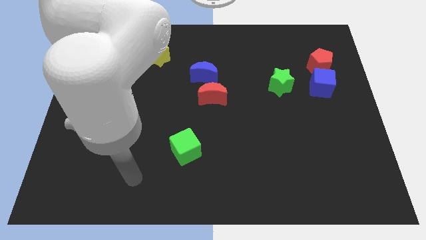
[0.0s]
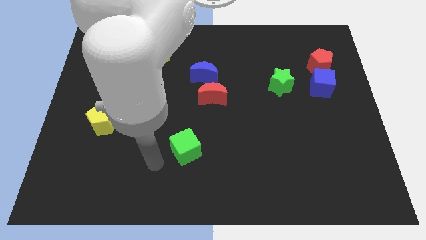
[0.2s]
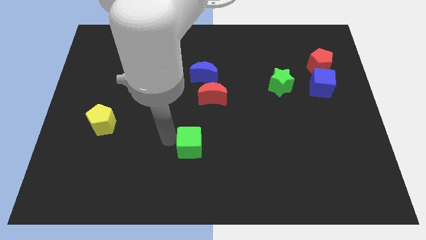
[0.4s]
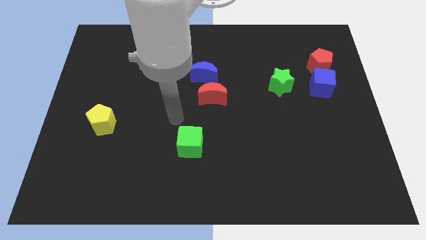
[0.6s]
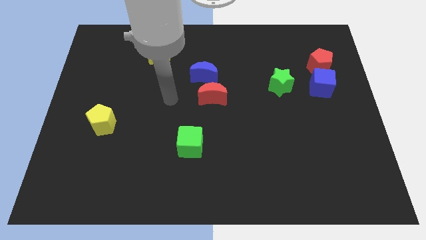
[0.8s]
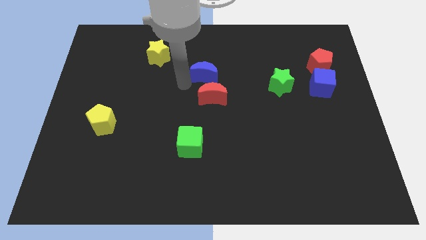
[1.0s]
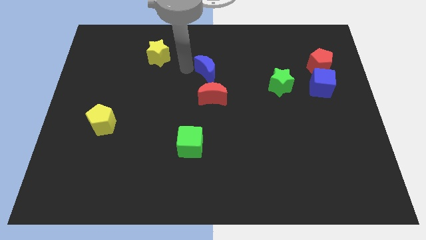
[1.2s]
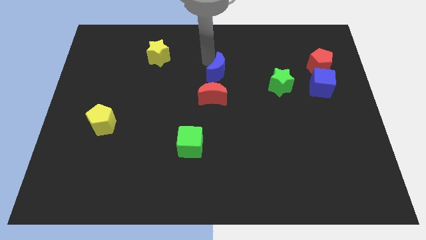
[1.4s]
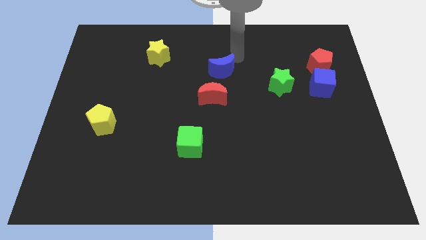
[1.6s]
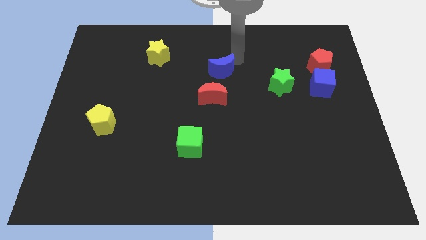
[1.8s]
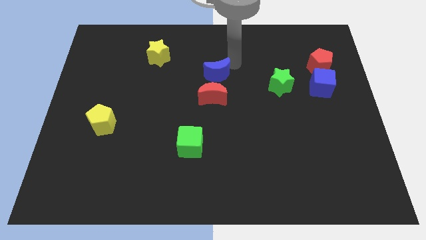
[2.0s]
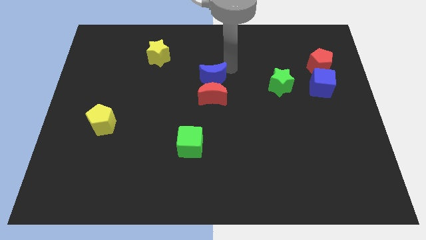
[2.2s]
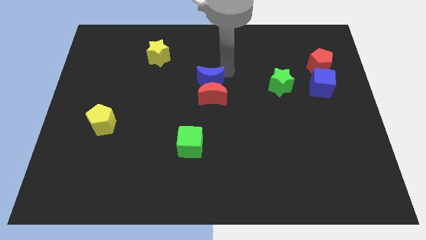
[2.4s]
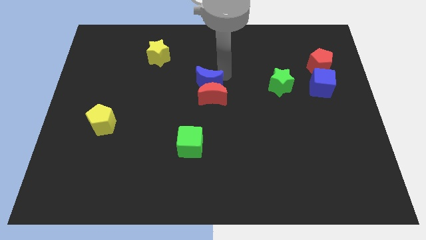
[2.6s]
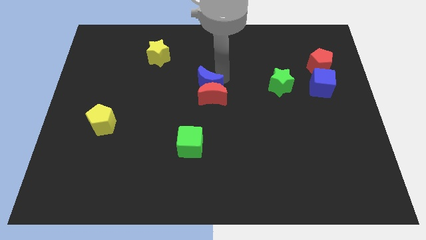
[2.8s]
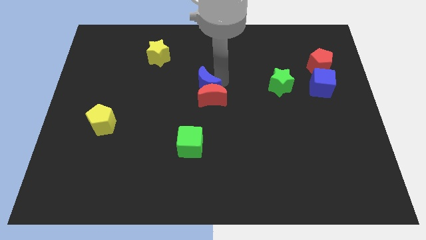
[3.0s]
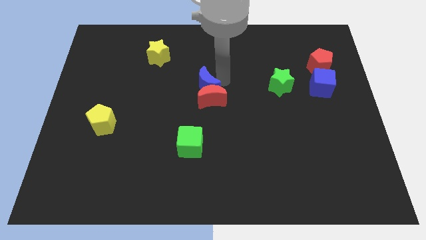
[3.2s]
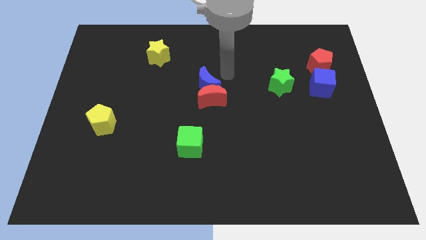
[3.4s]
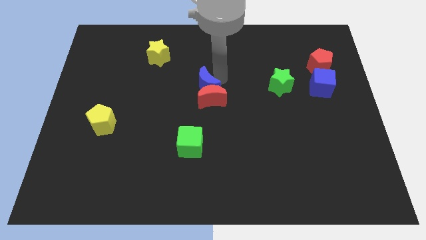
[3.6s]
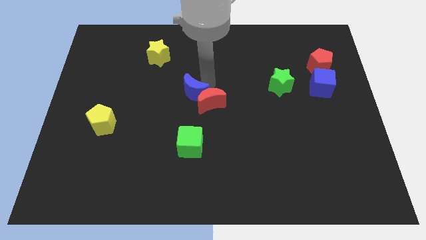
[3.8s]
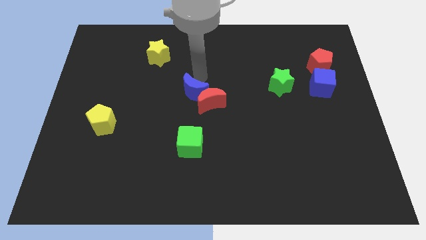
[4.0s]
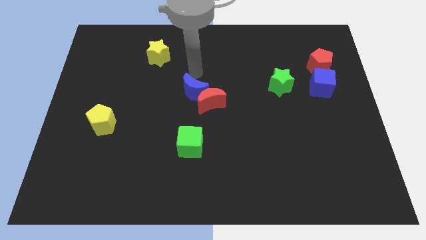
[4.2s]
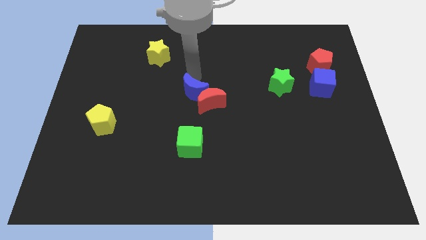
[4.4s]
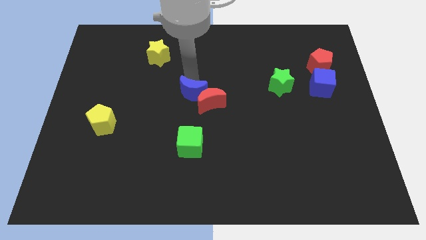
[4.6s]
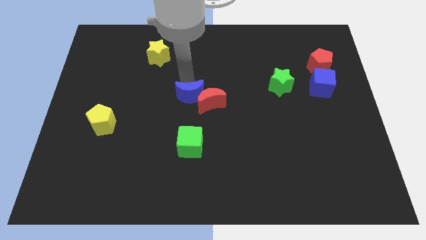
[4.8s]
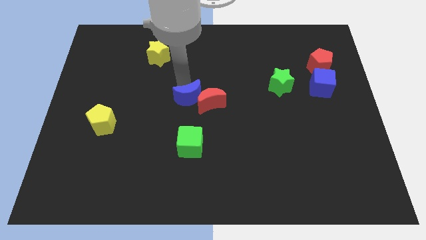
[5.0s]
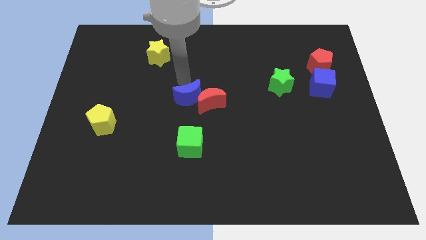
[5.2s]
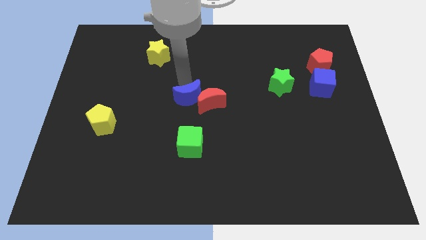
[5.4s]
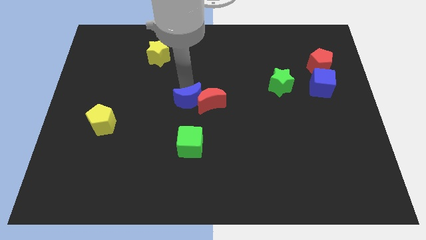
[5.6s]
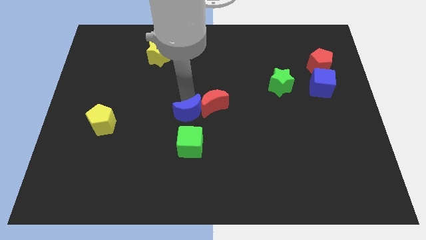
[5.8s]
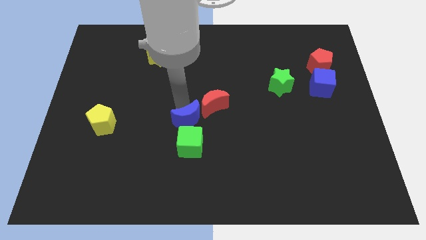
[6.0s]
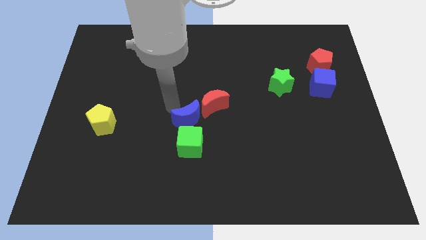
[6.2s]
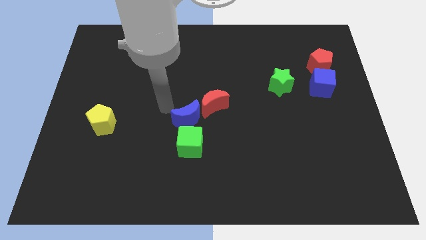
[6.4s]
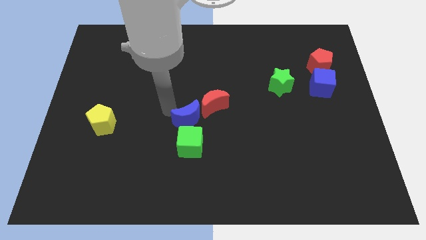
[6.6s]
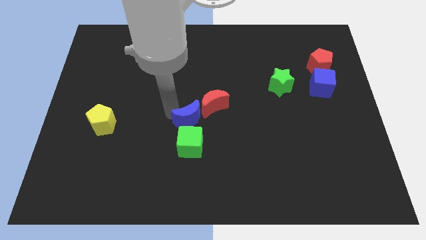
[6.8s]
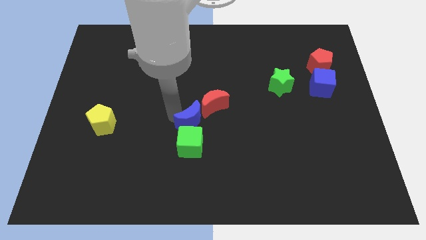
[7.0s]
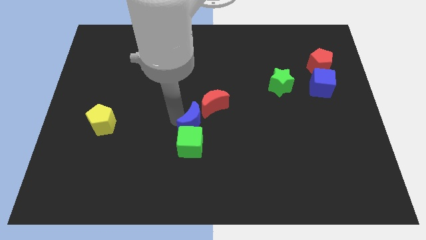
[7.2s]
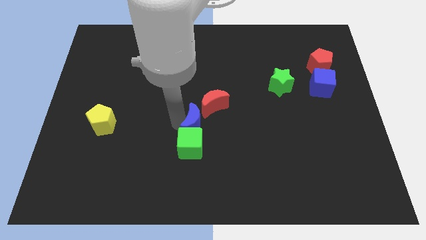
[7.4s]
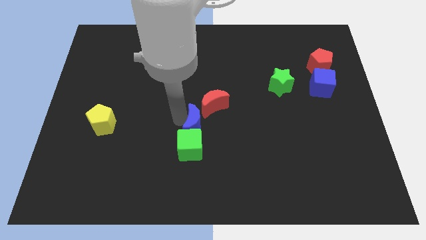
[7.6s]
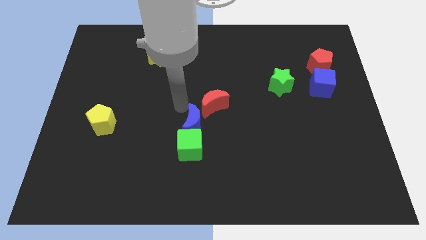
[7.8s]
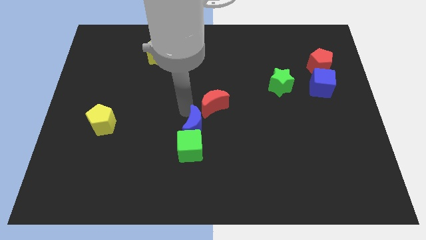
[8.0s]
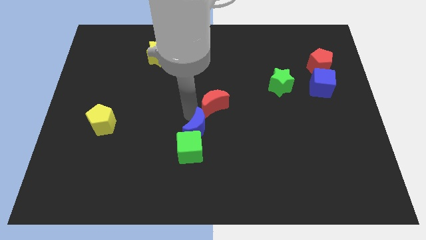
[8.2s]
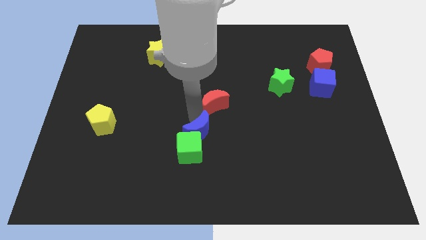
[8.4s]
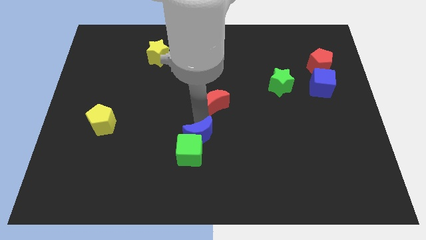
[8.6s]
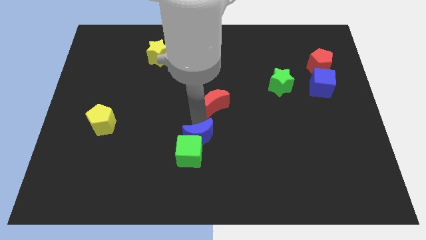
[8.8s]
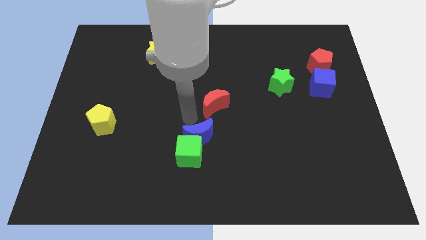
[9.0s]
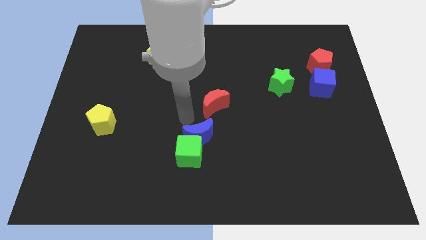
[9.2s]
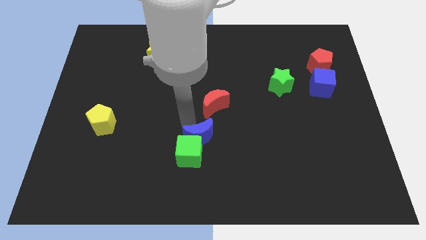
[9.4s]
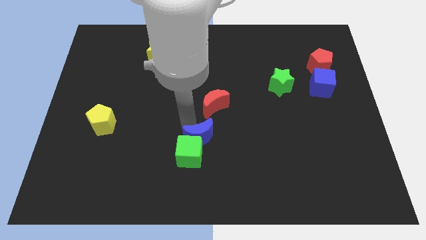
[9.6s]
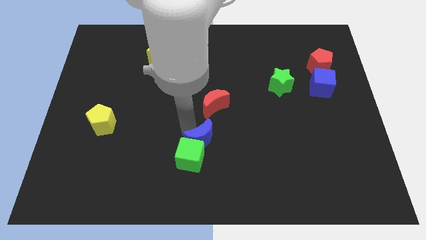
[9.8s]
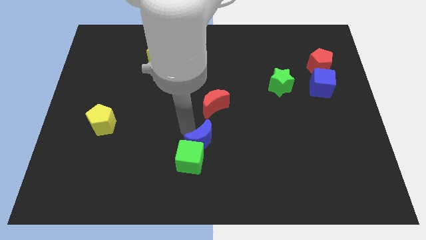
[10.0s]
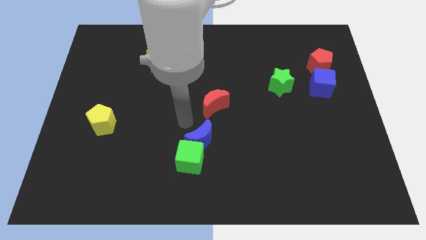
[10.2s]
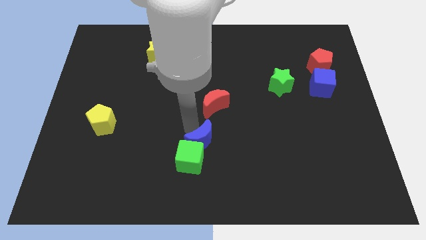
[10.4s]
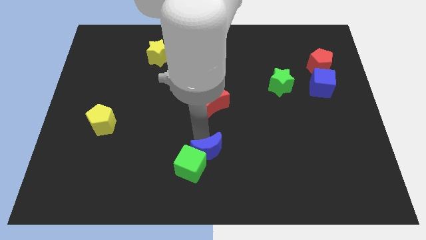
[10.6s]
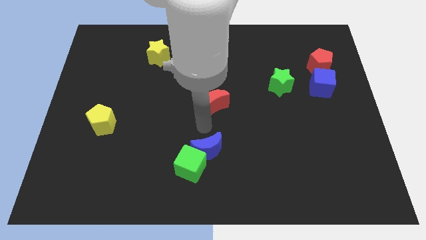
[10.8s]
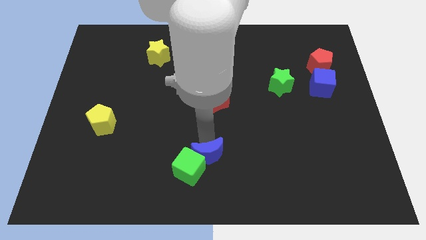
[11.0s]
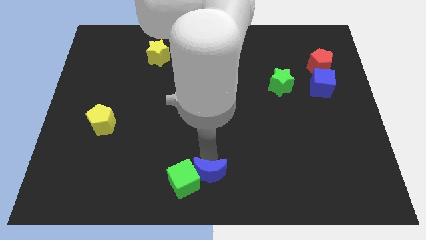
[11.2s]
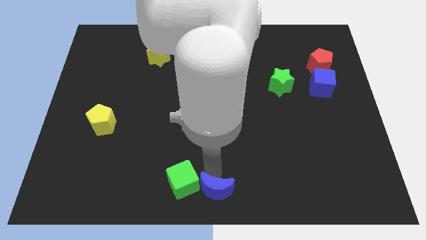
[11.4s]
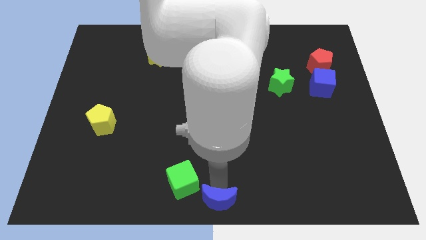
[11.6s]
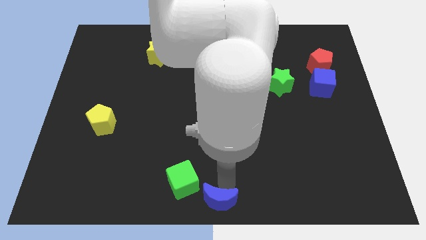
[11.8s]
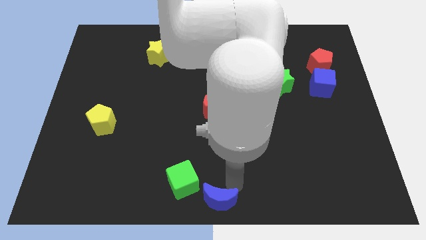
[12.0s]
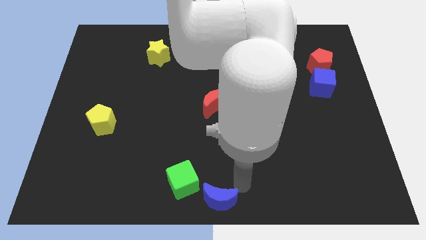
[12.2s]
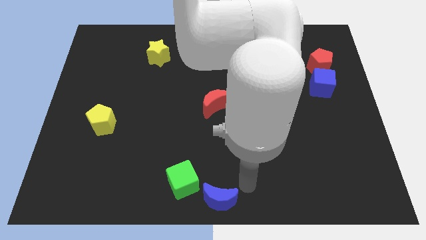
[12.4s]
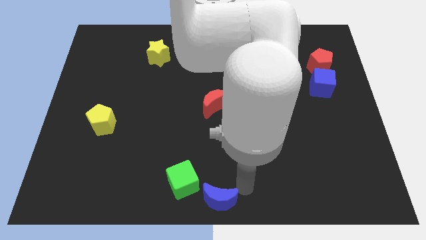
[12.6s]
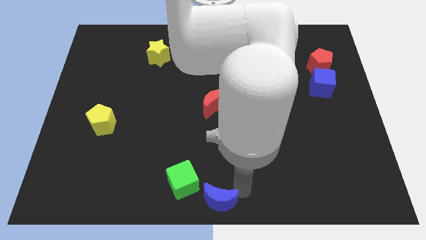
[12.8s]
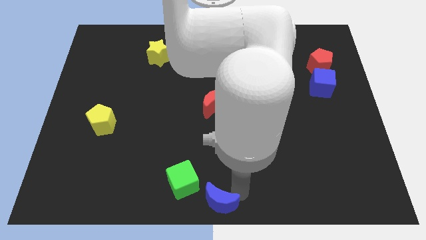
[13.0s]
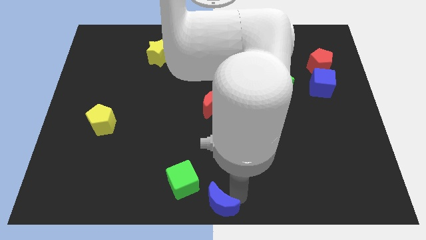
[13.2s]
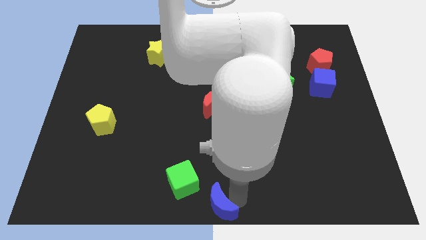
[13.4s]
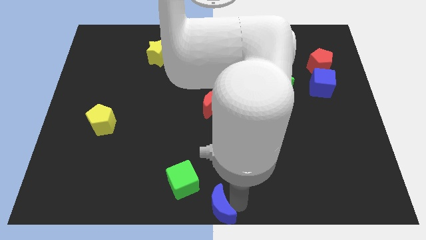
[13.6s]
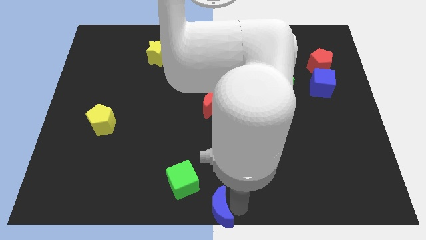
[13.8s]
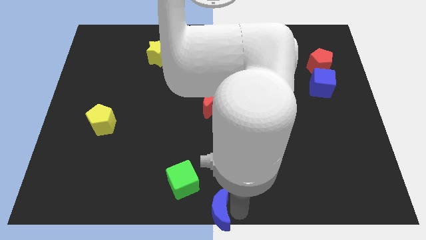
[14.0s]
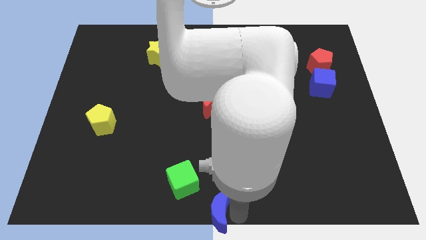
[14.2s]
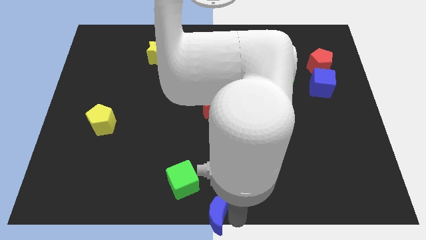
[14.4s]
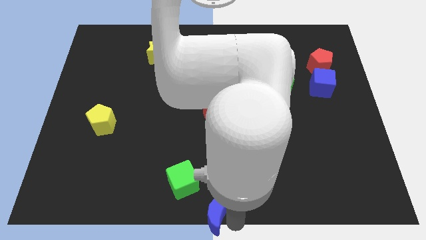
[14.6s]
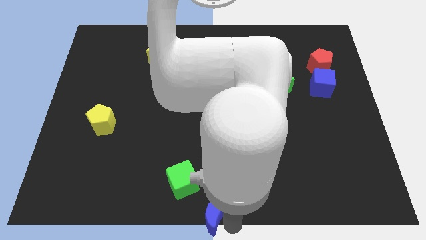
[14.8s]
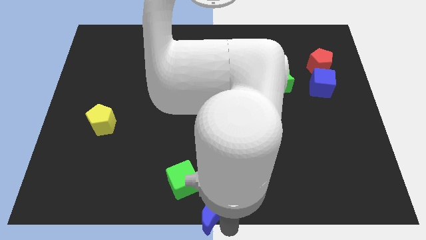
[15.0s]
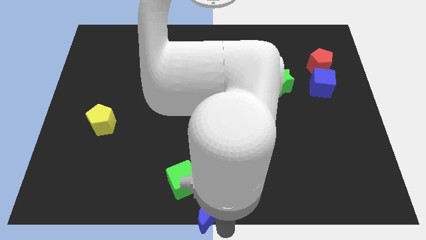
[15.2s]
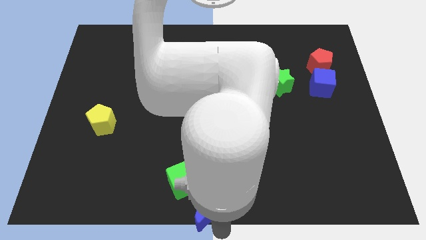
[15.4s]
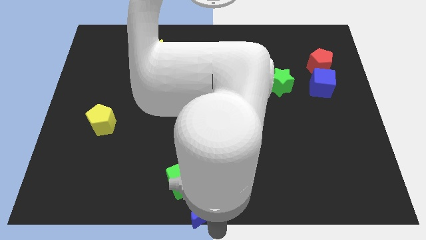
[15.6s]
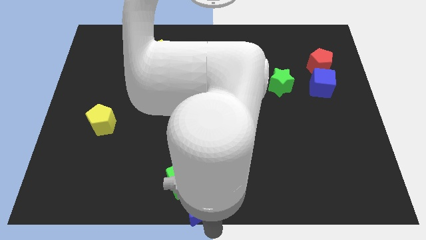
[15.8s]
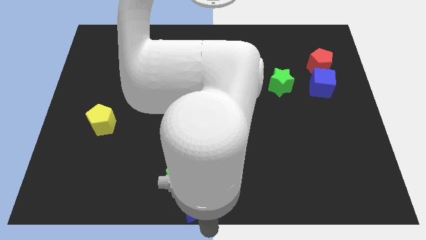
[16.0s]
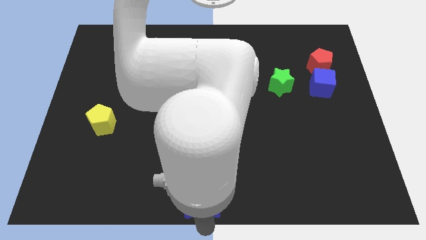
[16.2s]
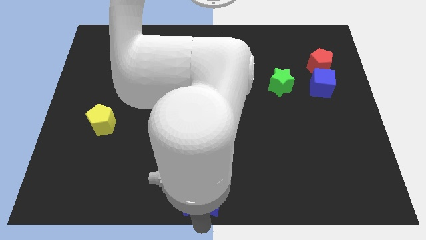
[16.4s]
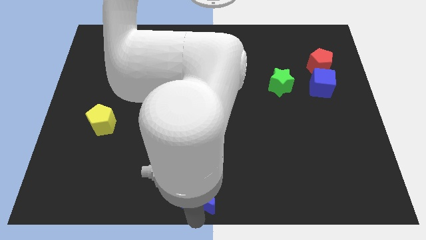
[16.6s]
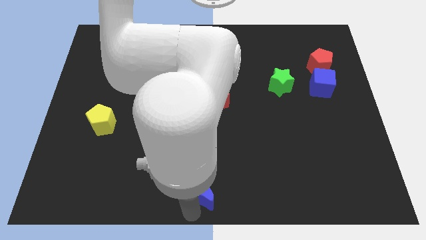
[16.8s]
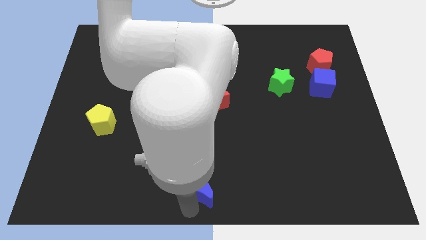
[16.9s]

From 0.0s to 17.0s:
push the blue moon to the bottom right side of the green cube
